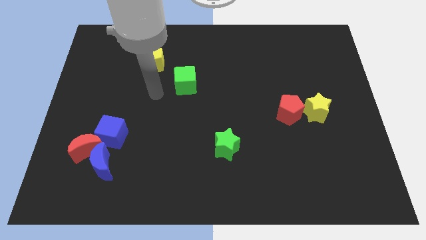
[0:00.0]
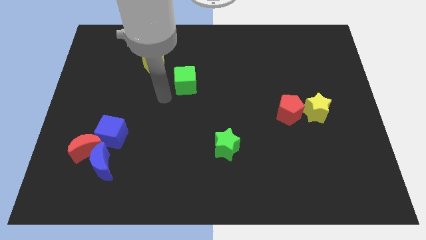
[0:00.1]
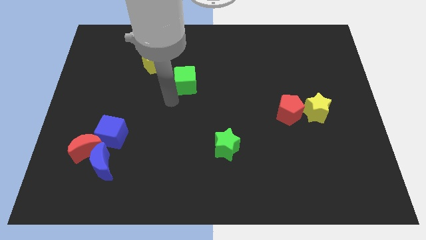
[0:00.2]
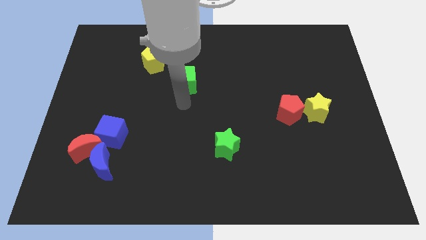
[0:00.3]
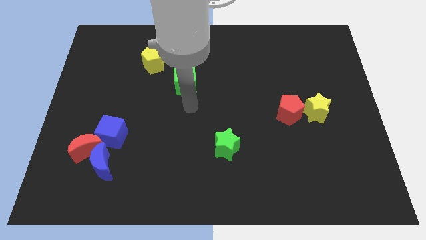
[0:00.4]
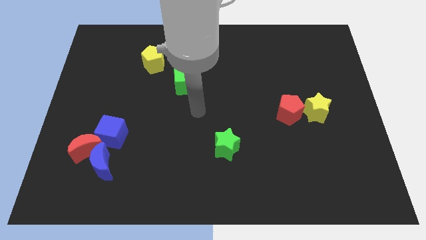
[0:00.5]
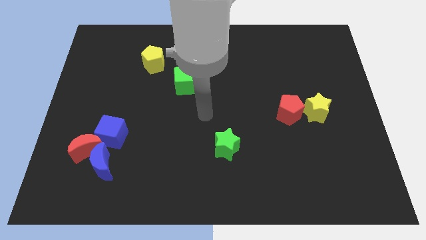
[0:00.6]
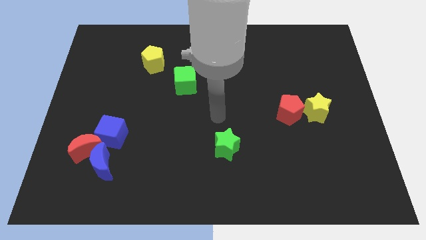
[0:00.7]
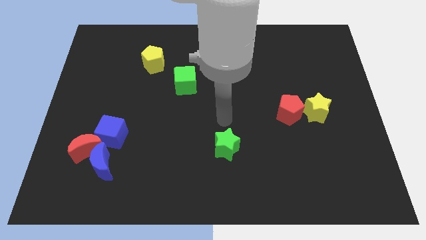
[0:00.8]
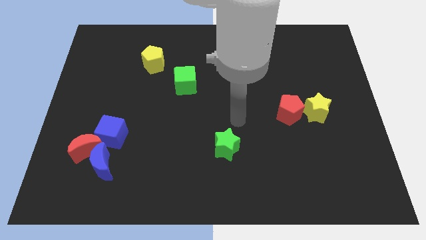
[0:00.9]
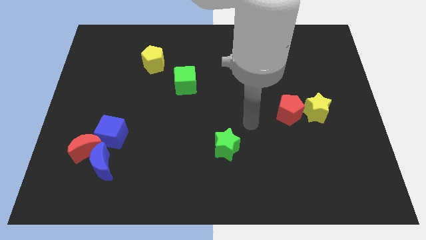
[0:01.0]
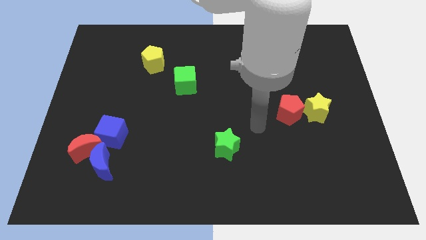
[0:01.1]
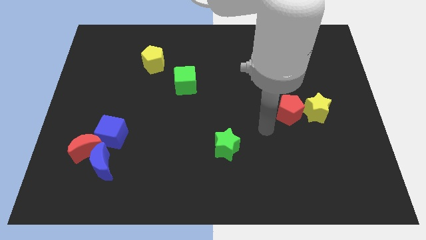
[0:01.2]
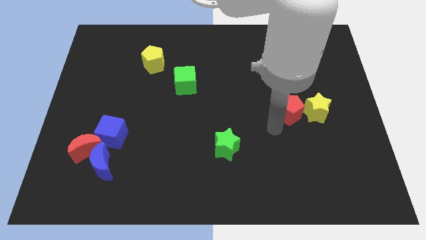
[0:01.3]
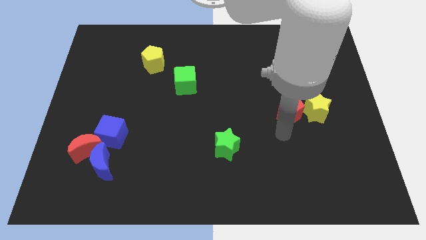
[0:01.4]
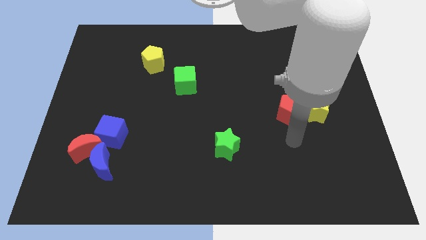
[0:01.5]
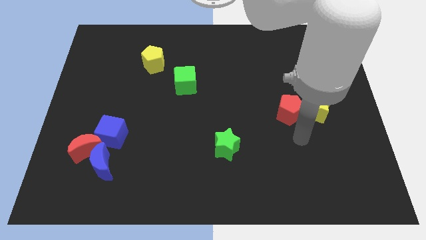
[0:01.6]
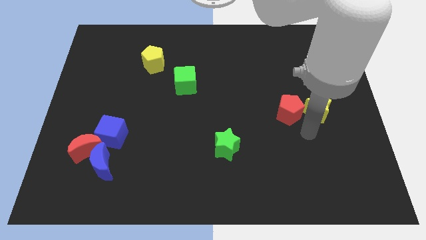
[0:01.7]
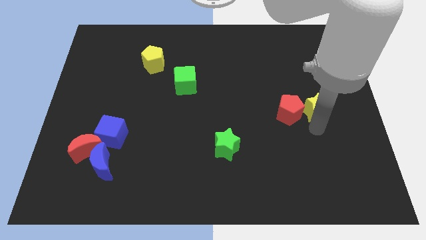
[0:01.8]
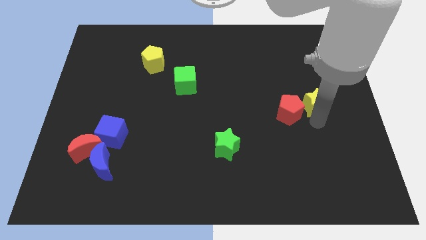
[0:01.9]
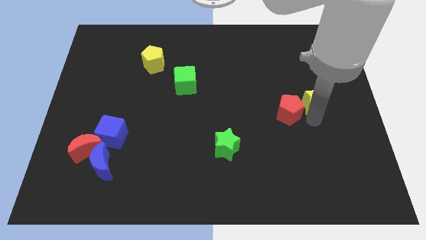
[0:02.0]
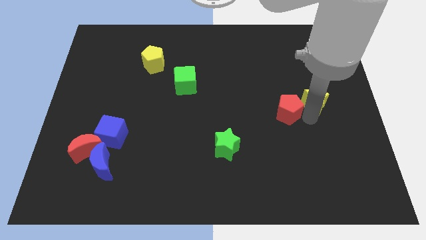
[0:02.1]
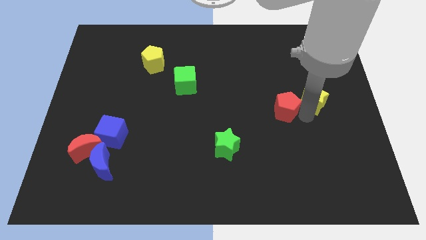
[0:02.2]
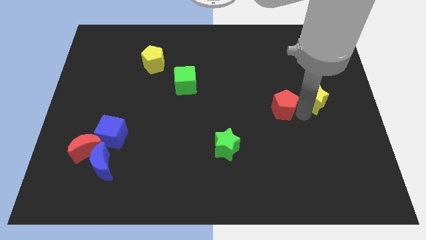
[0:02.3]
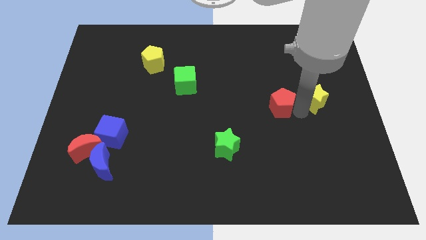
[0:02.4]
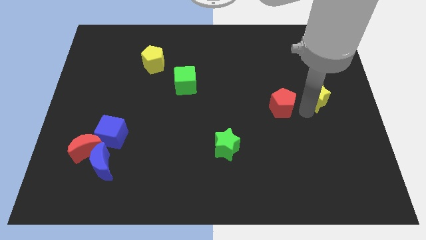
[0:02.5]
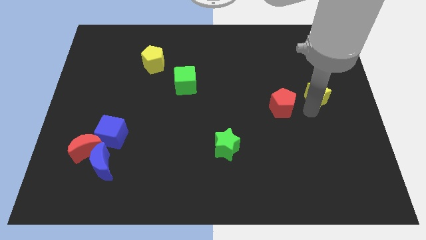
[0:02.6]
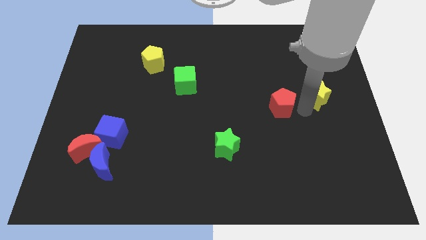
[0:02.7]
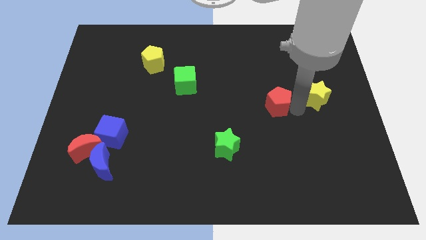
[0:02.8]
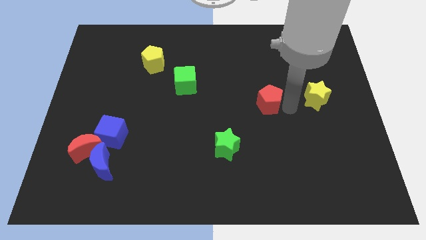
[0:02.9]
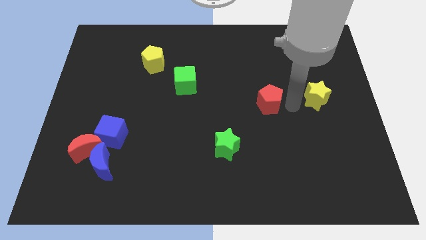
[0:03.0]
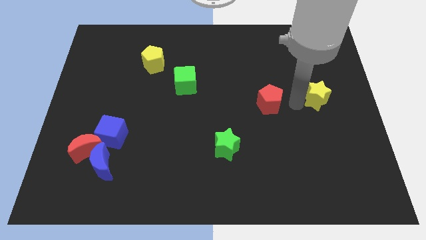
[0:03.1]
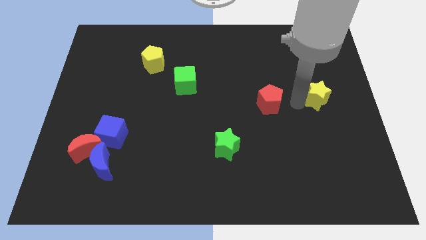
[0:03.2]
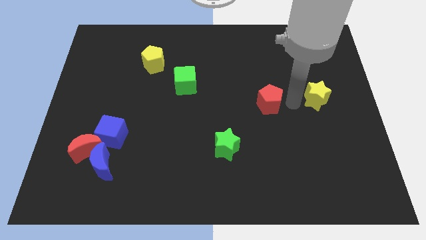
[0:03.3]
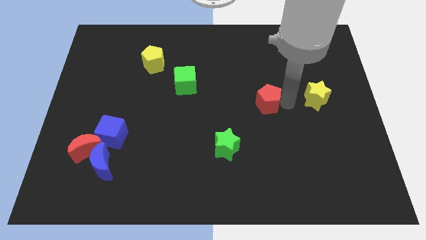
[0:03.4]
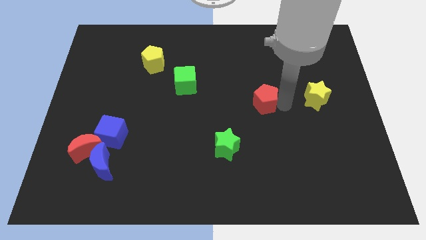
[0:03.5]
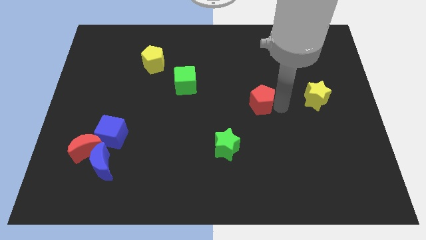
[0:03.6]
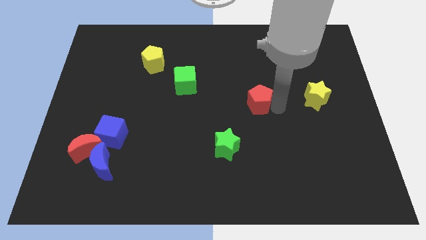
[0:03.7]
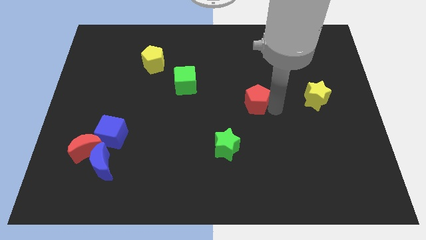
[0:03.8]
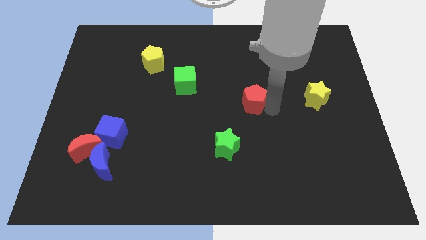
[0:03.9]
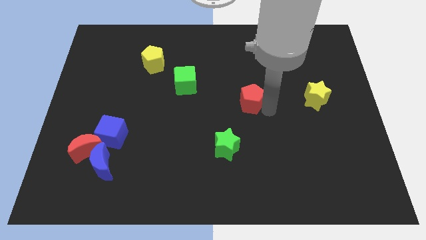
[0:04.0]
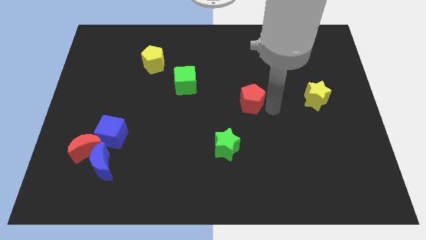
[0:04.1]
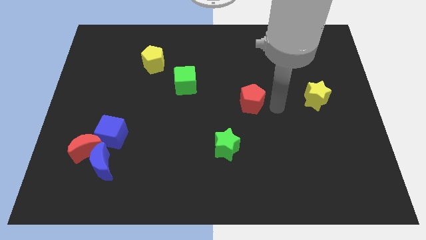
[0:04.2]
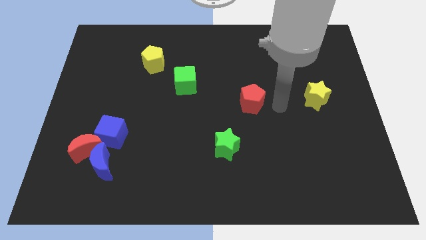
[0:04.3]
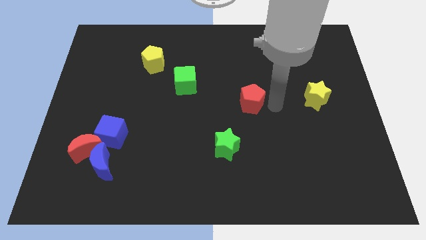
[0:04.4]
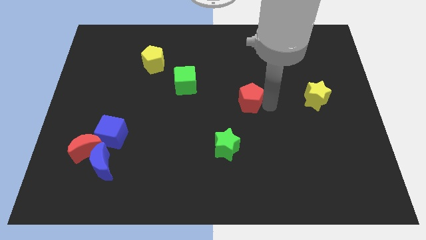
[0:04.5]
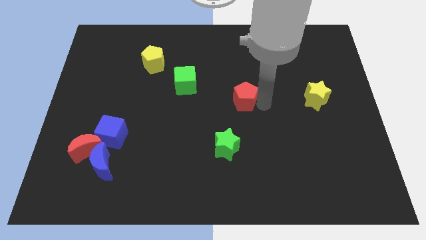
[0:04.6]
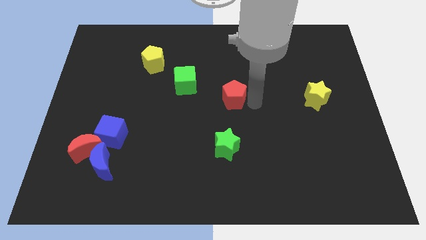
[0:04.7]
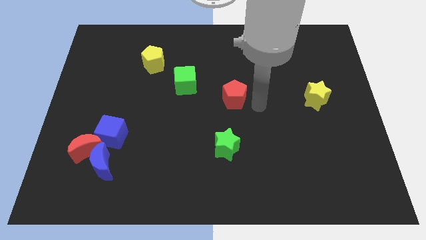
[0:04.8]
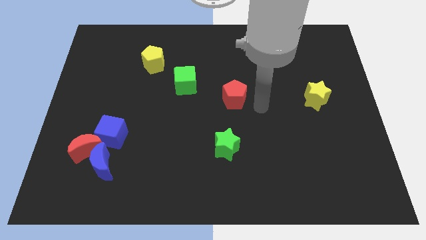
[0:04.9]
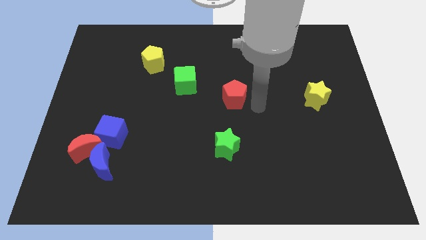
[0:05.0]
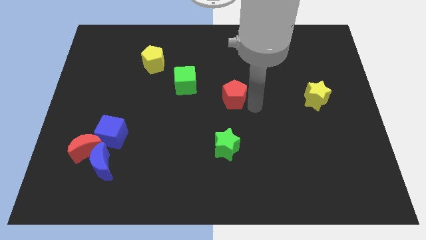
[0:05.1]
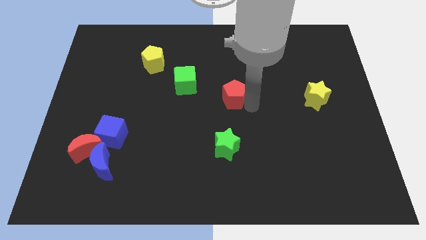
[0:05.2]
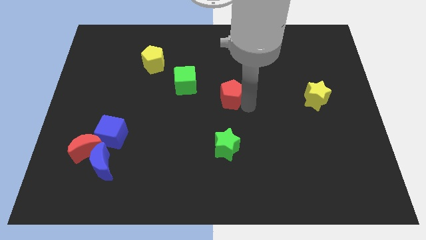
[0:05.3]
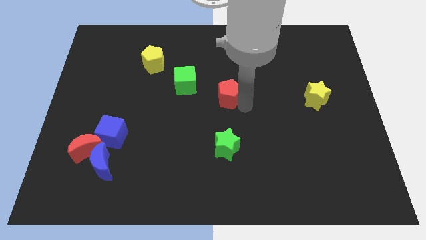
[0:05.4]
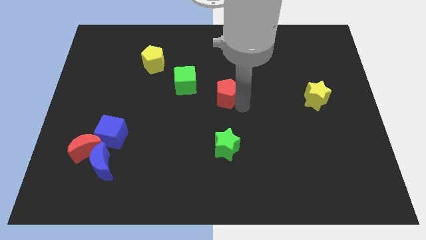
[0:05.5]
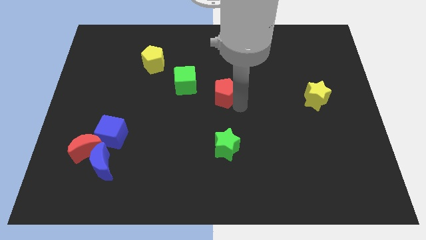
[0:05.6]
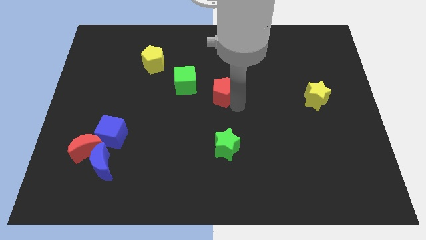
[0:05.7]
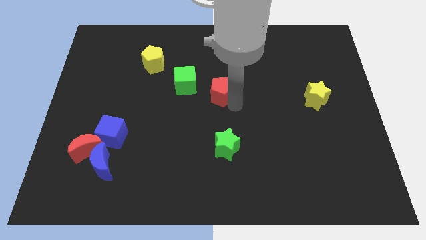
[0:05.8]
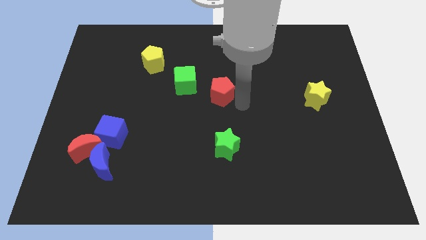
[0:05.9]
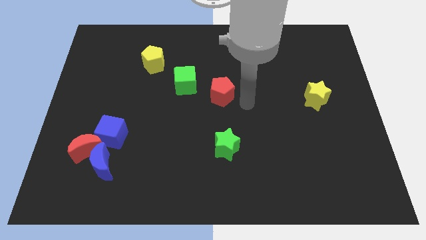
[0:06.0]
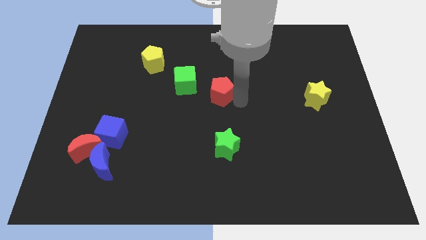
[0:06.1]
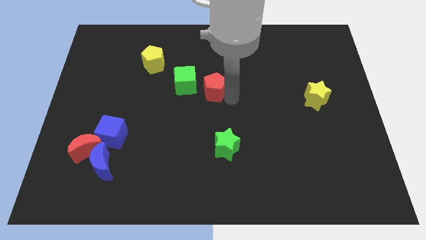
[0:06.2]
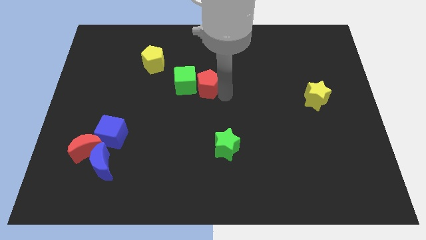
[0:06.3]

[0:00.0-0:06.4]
slide the red pentagon next to the green cube

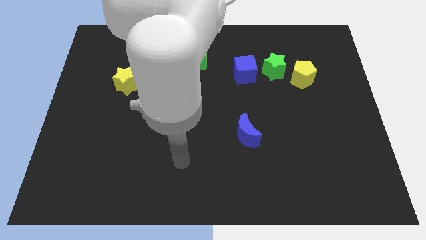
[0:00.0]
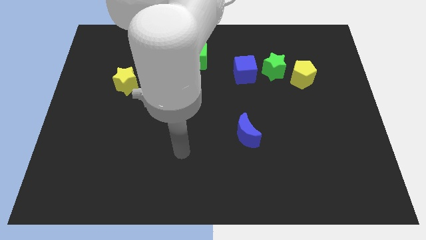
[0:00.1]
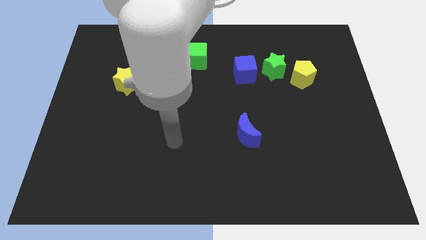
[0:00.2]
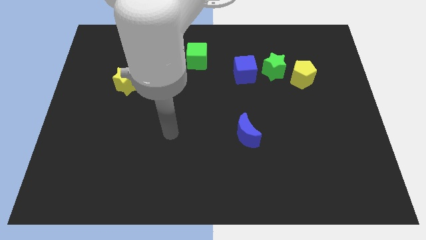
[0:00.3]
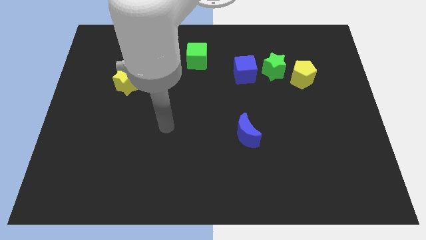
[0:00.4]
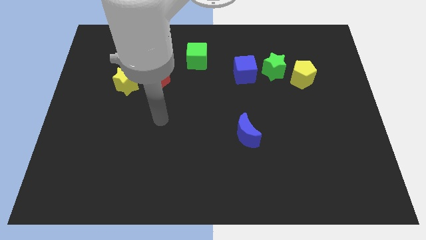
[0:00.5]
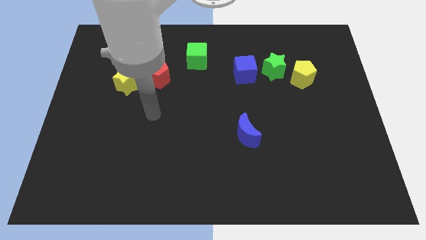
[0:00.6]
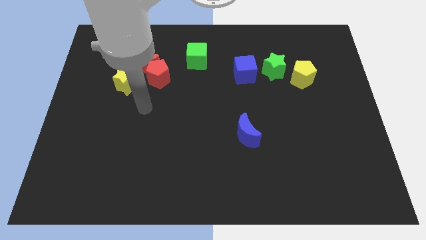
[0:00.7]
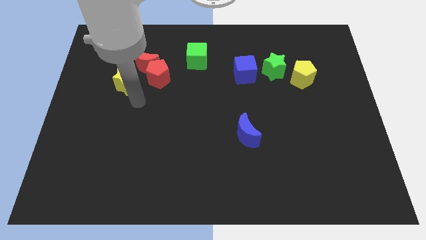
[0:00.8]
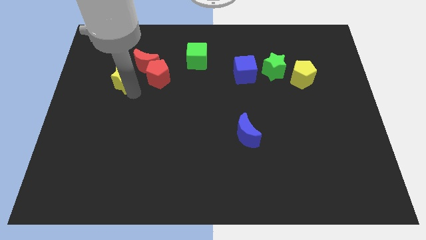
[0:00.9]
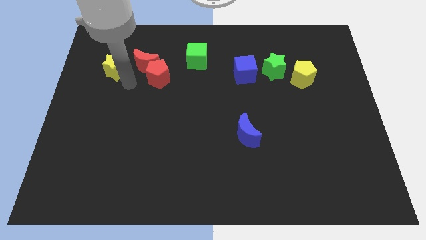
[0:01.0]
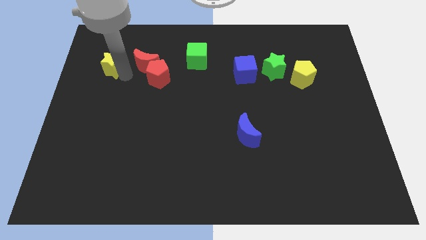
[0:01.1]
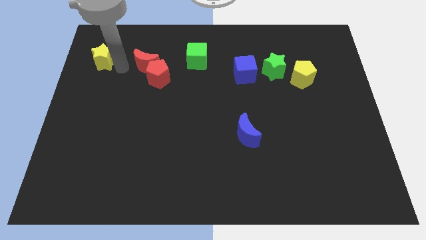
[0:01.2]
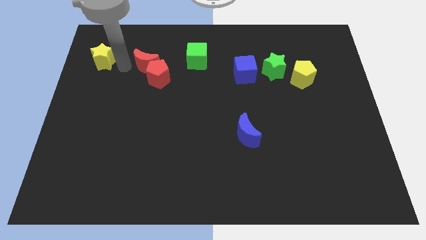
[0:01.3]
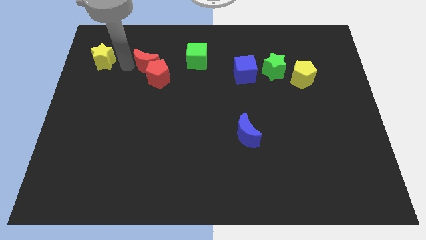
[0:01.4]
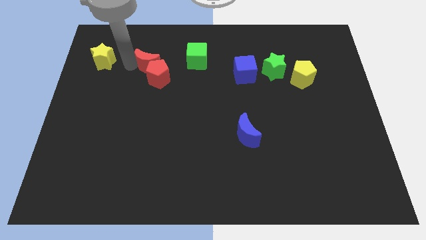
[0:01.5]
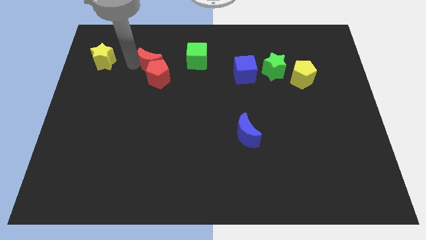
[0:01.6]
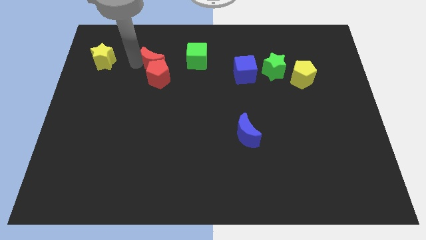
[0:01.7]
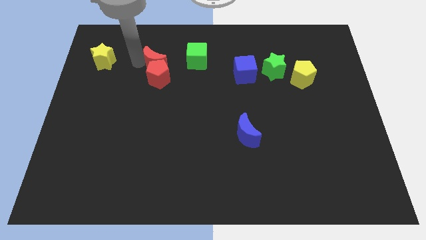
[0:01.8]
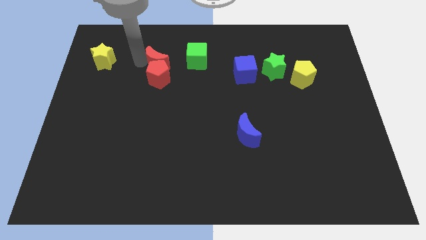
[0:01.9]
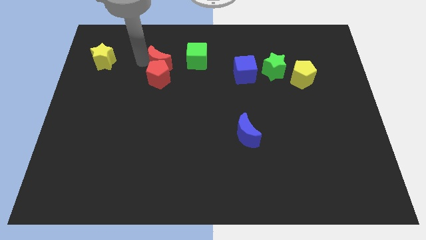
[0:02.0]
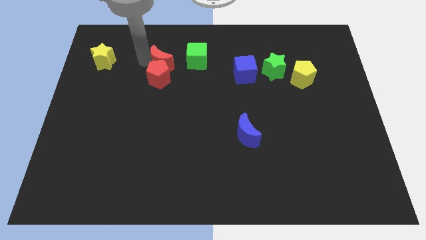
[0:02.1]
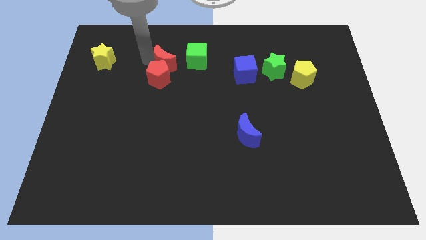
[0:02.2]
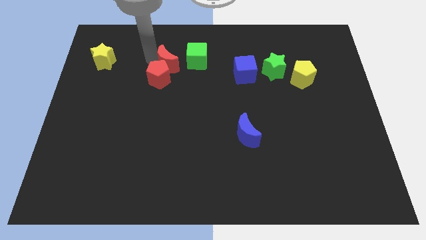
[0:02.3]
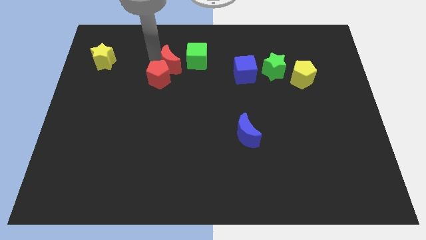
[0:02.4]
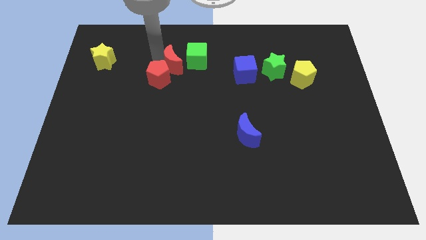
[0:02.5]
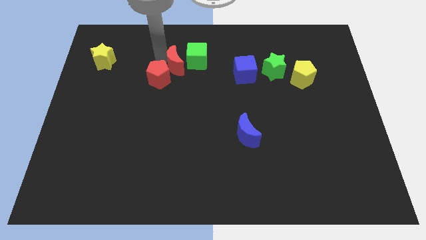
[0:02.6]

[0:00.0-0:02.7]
move the red moon close to the green cube
